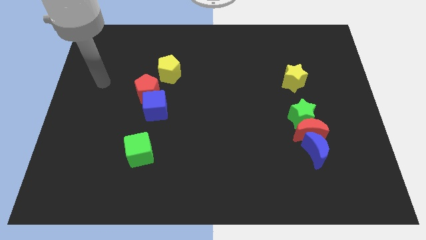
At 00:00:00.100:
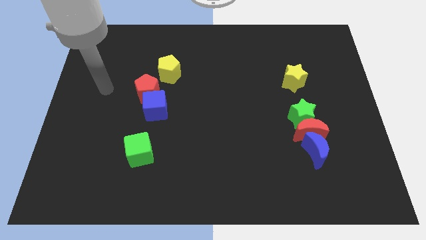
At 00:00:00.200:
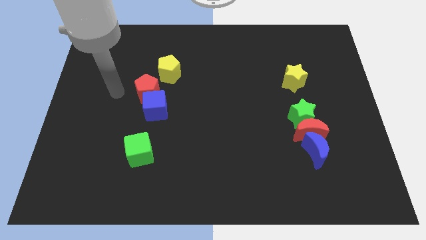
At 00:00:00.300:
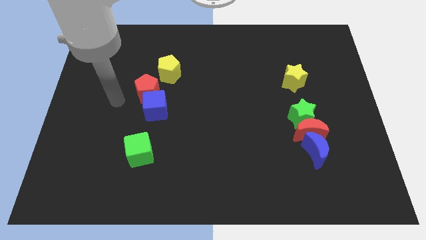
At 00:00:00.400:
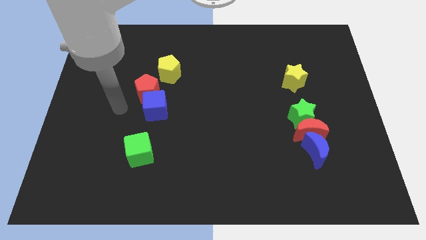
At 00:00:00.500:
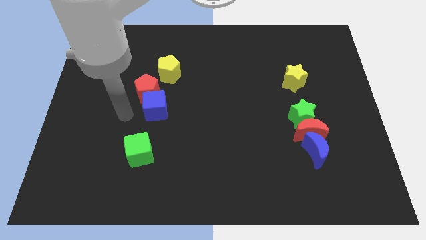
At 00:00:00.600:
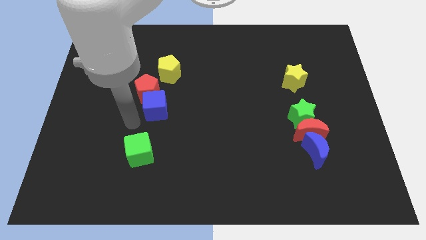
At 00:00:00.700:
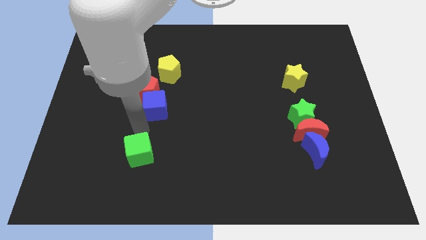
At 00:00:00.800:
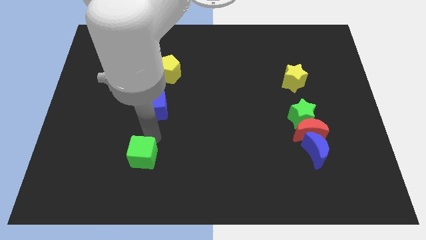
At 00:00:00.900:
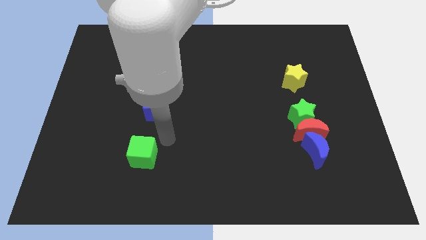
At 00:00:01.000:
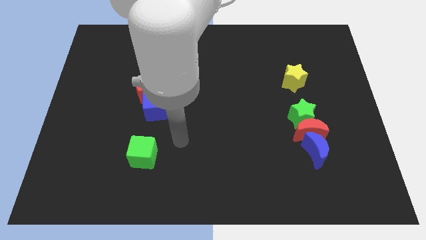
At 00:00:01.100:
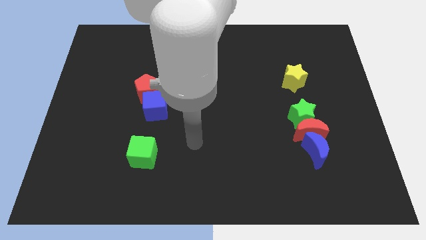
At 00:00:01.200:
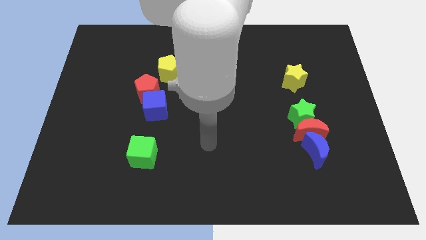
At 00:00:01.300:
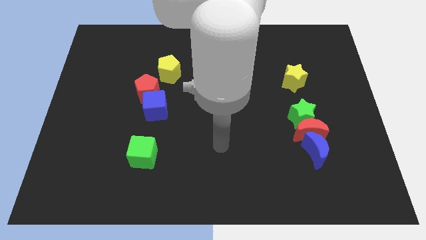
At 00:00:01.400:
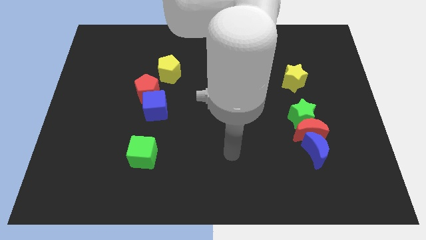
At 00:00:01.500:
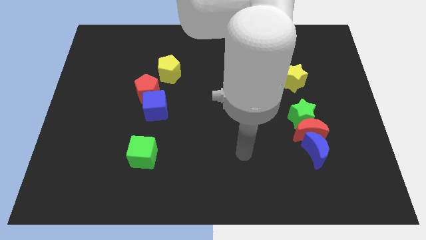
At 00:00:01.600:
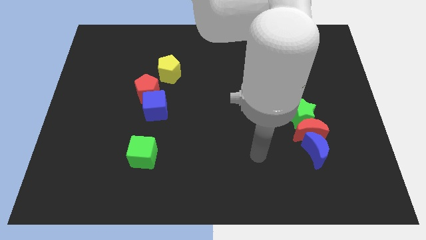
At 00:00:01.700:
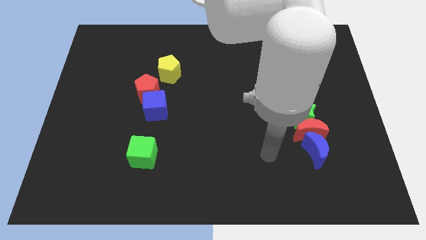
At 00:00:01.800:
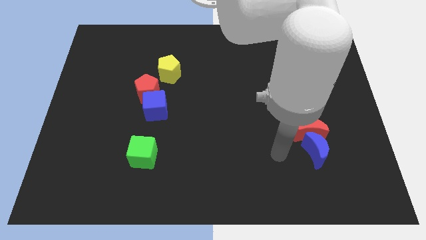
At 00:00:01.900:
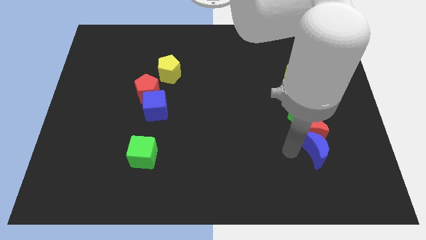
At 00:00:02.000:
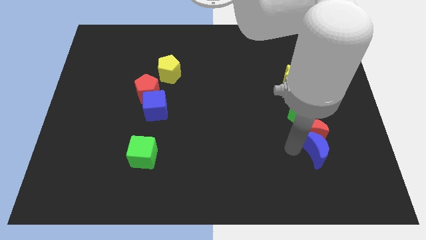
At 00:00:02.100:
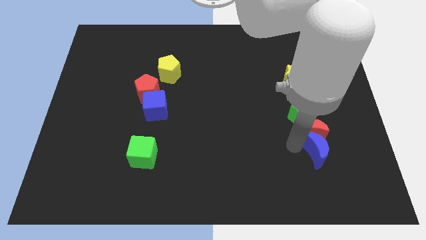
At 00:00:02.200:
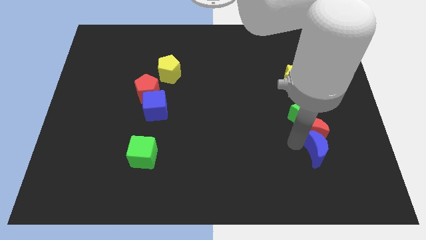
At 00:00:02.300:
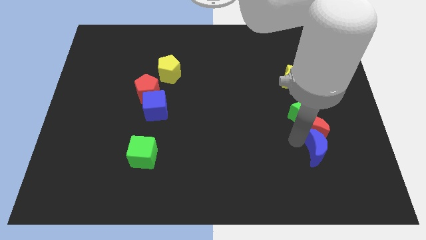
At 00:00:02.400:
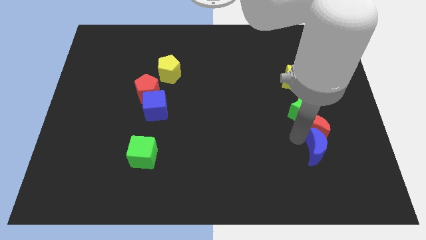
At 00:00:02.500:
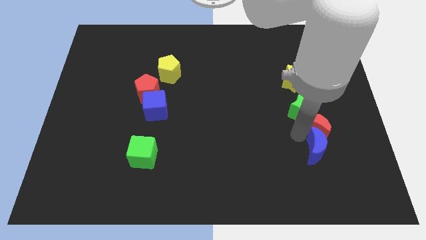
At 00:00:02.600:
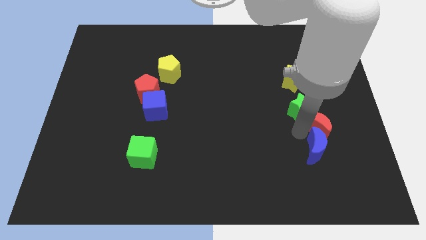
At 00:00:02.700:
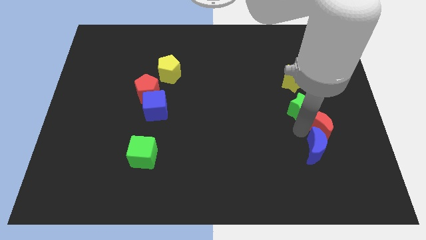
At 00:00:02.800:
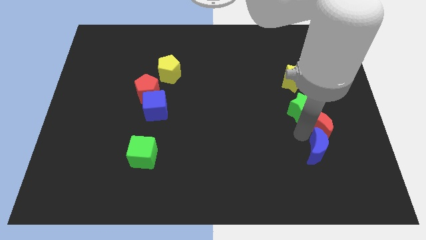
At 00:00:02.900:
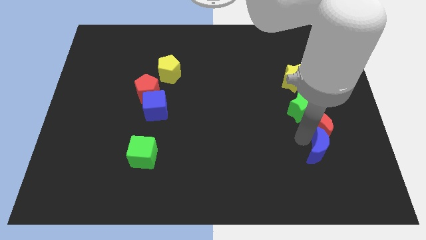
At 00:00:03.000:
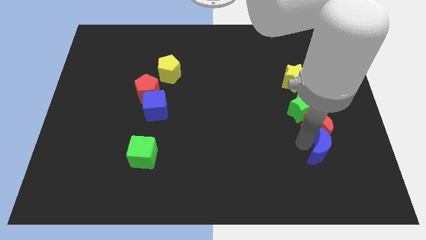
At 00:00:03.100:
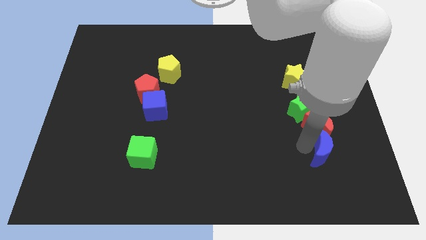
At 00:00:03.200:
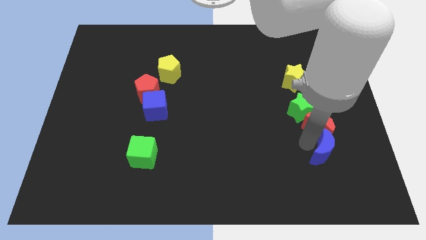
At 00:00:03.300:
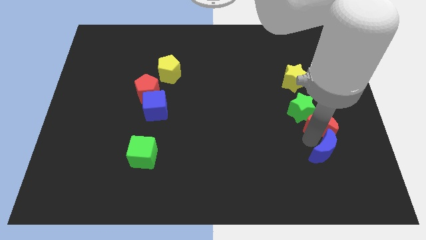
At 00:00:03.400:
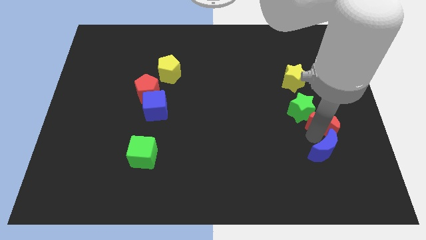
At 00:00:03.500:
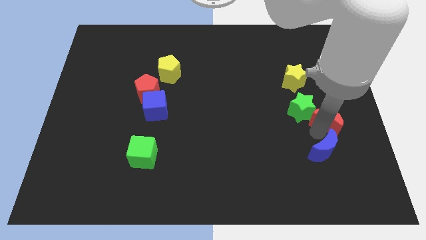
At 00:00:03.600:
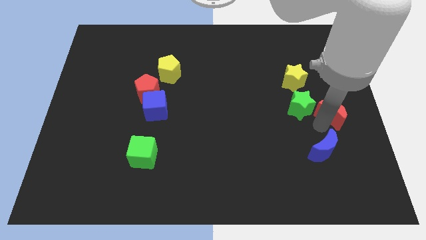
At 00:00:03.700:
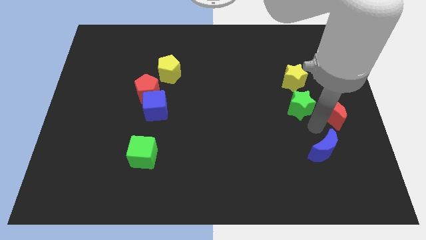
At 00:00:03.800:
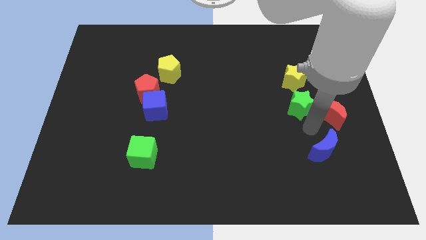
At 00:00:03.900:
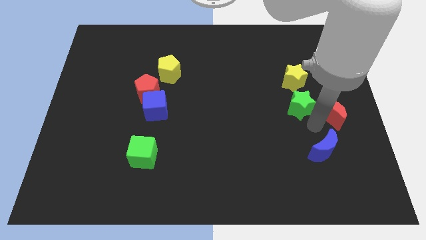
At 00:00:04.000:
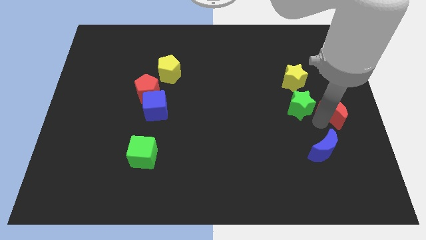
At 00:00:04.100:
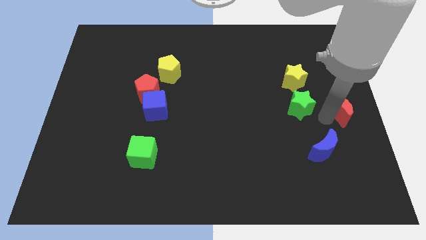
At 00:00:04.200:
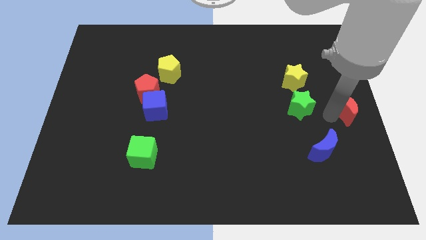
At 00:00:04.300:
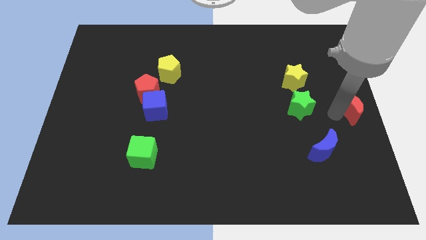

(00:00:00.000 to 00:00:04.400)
pull the red moon apart from the green star and blue moon

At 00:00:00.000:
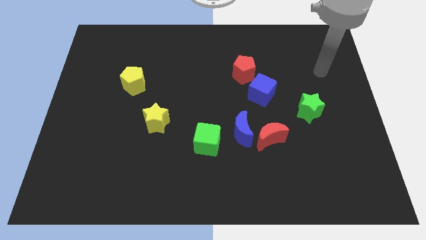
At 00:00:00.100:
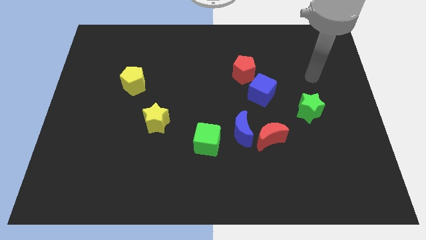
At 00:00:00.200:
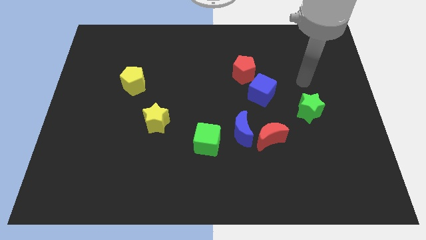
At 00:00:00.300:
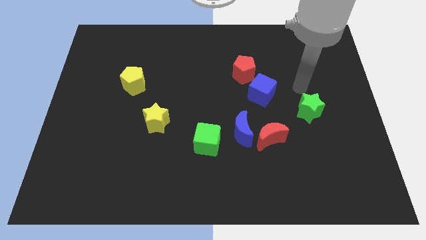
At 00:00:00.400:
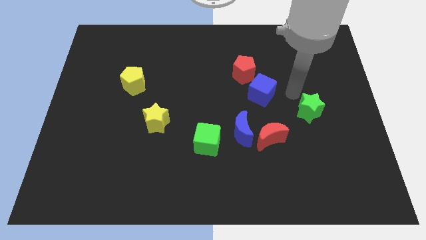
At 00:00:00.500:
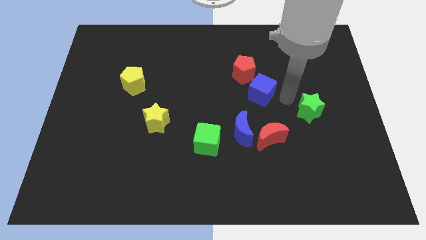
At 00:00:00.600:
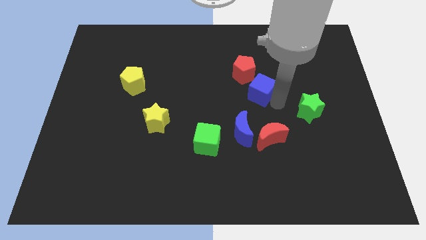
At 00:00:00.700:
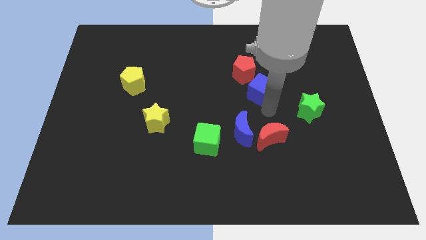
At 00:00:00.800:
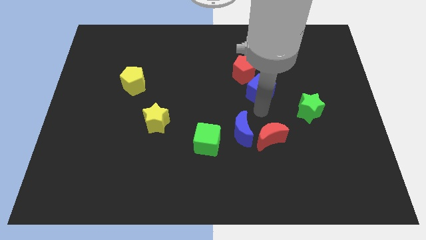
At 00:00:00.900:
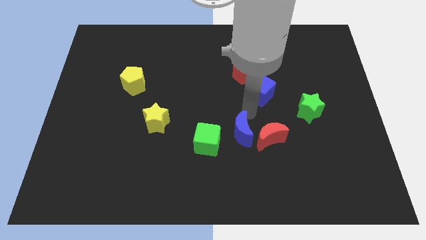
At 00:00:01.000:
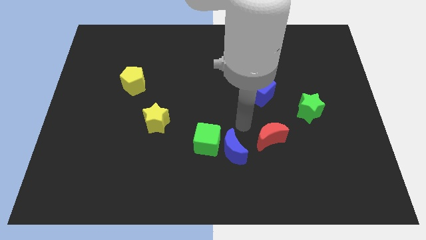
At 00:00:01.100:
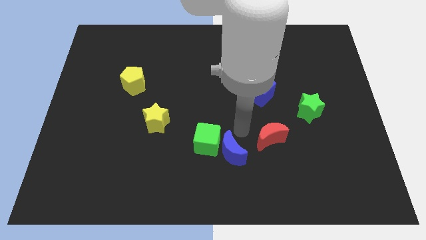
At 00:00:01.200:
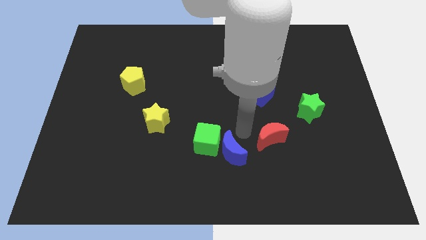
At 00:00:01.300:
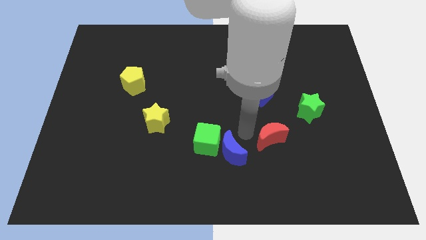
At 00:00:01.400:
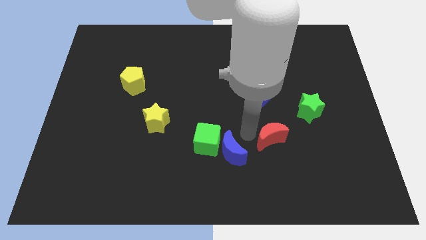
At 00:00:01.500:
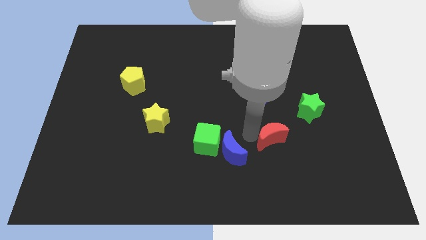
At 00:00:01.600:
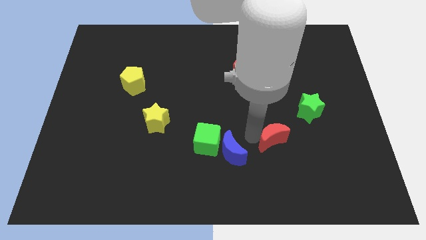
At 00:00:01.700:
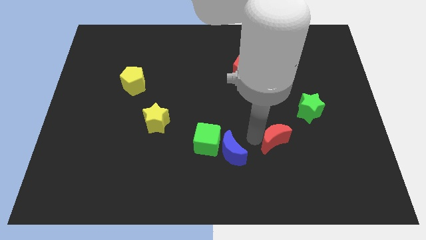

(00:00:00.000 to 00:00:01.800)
pull the red moon apart from the blue moon

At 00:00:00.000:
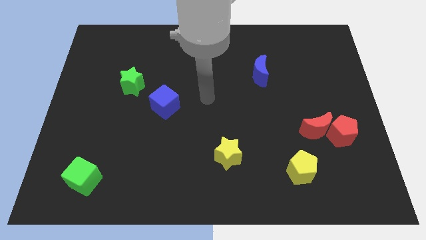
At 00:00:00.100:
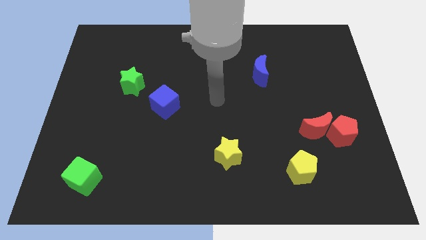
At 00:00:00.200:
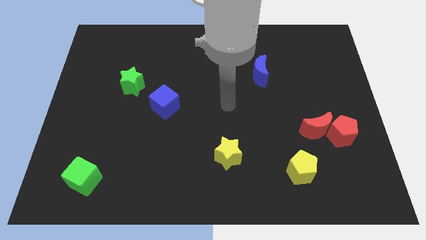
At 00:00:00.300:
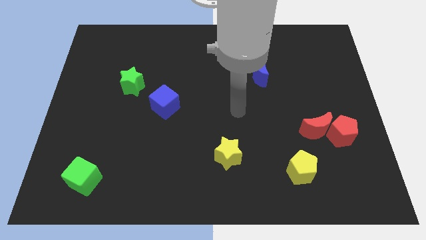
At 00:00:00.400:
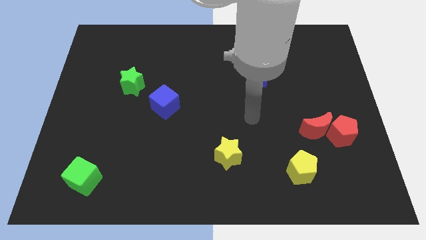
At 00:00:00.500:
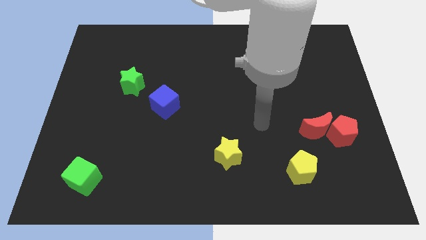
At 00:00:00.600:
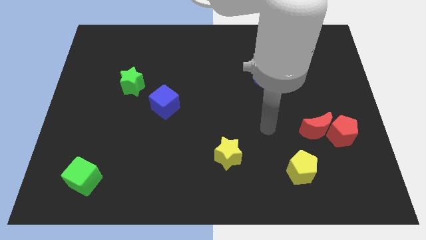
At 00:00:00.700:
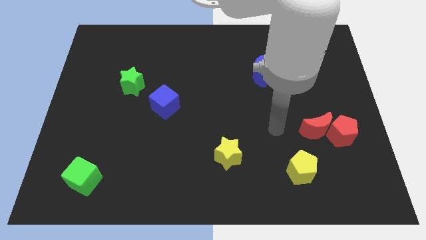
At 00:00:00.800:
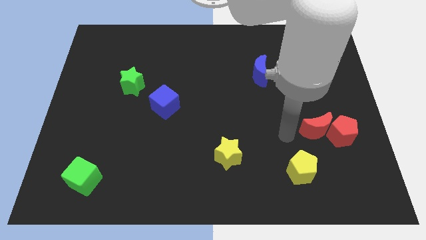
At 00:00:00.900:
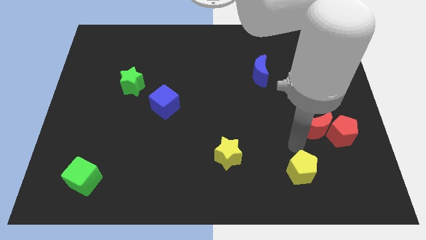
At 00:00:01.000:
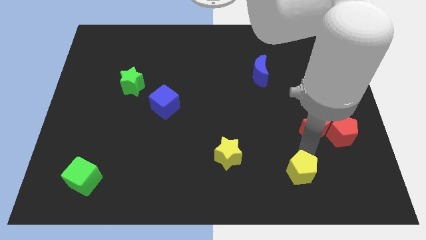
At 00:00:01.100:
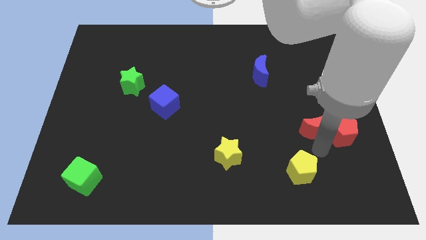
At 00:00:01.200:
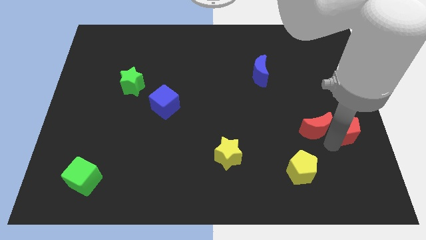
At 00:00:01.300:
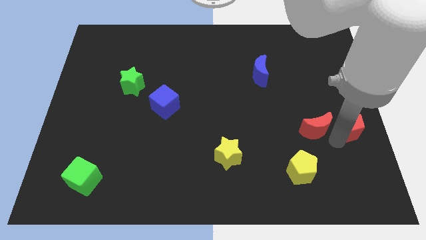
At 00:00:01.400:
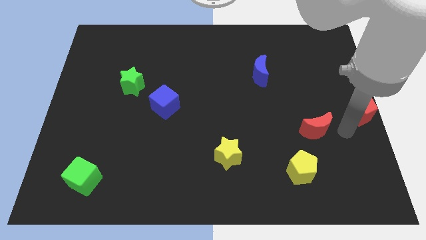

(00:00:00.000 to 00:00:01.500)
move the red moon away from the red pentagon

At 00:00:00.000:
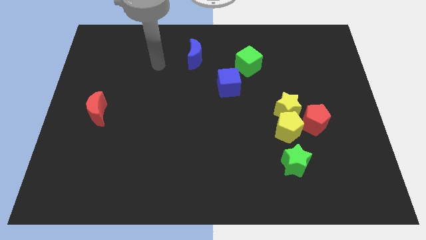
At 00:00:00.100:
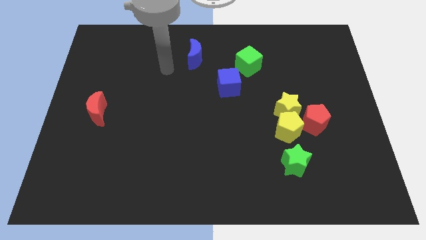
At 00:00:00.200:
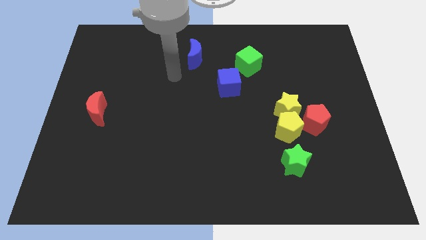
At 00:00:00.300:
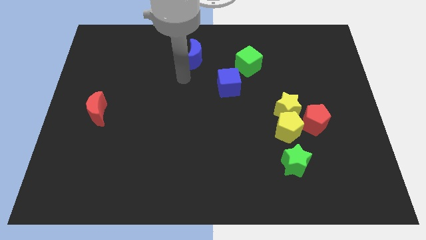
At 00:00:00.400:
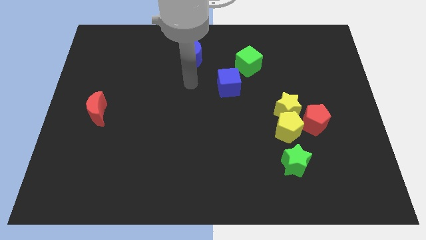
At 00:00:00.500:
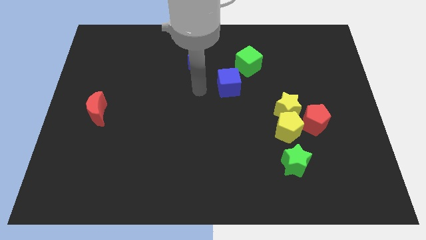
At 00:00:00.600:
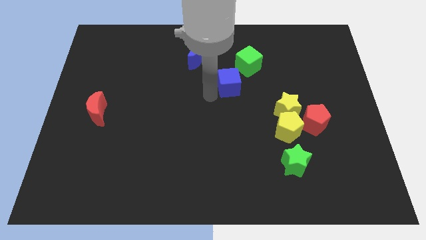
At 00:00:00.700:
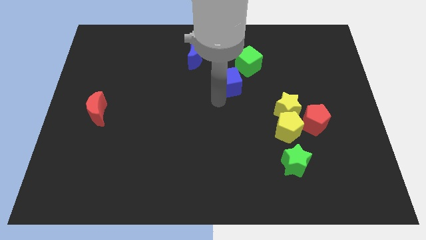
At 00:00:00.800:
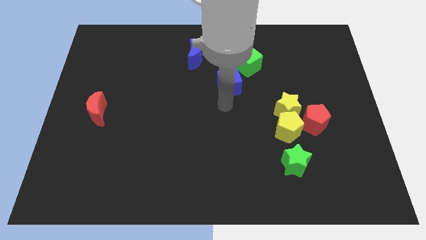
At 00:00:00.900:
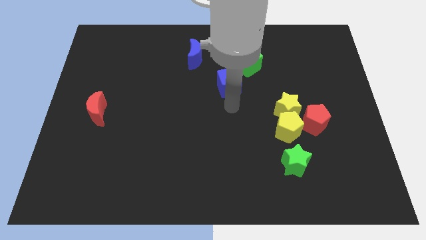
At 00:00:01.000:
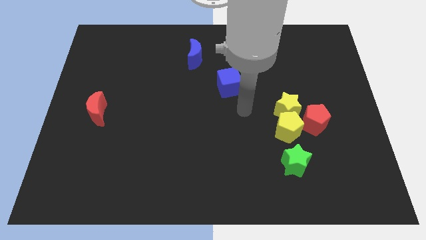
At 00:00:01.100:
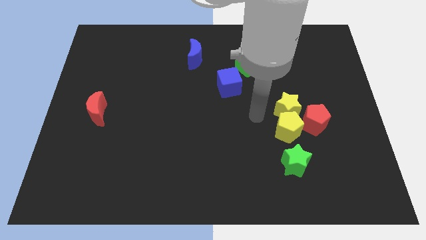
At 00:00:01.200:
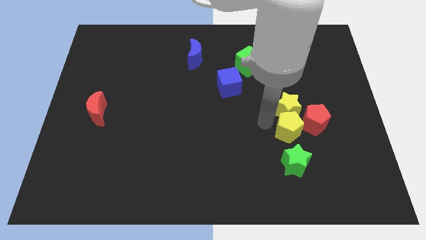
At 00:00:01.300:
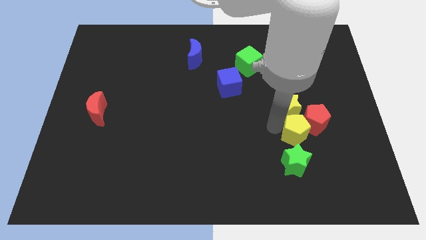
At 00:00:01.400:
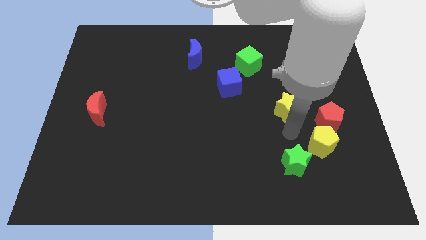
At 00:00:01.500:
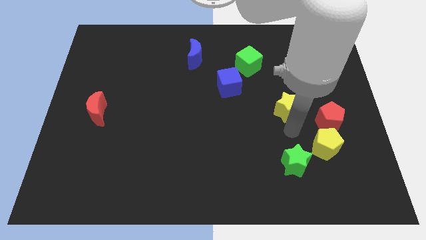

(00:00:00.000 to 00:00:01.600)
pull the yellow star apart from the yellow pentagon and red pentagon
